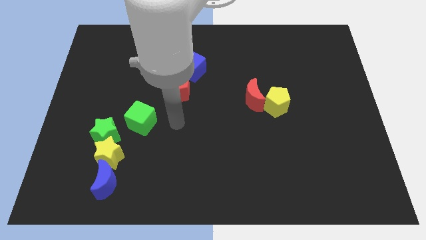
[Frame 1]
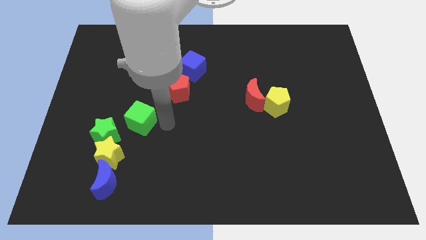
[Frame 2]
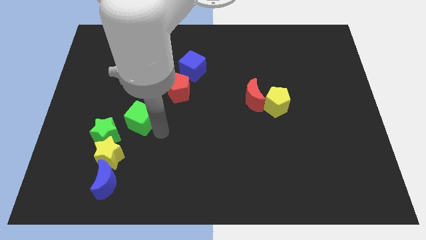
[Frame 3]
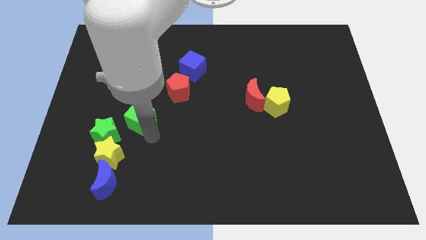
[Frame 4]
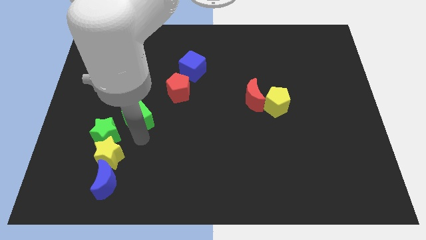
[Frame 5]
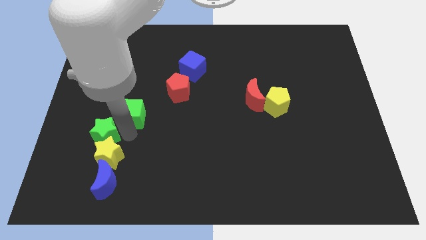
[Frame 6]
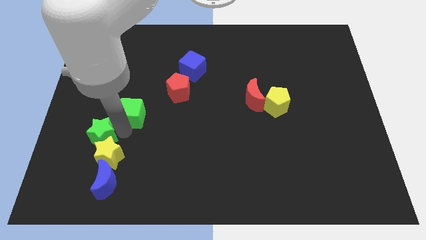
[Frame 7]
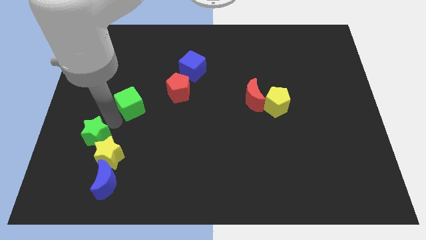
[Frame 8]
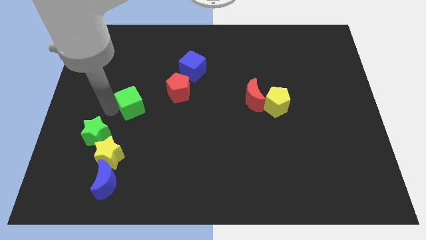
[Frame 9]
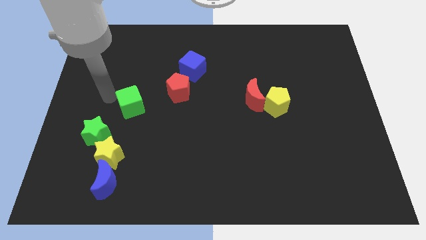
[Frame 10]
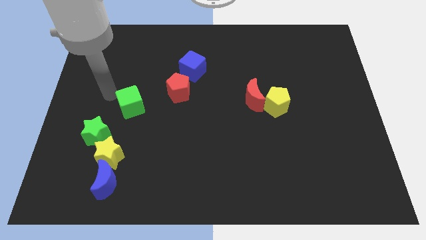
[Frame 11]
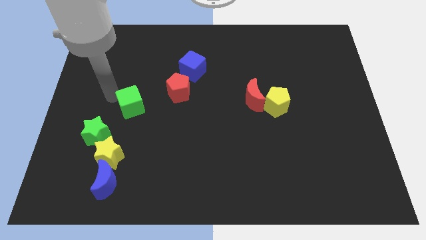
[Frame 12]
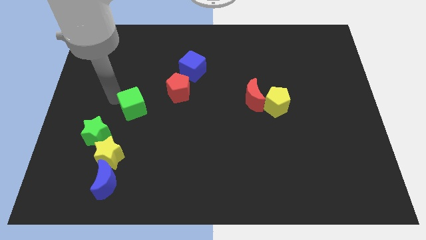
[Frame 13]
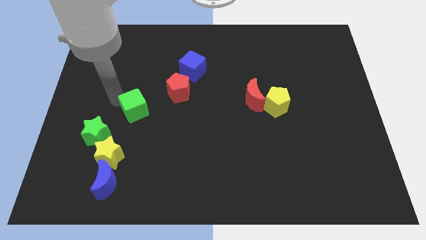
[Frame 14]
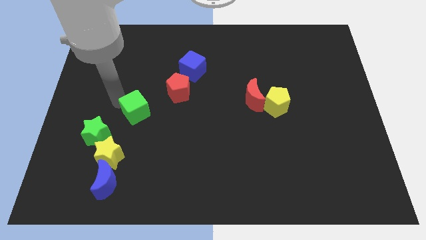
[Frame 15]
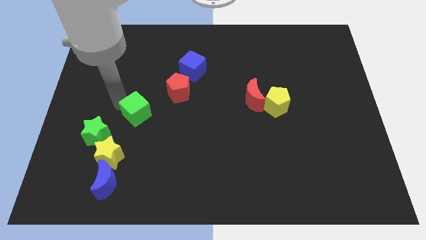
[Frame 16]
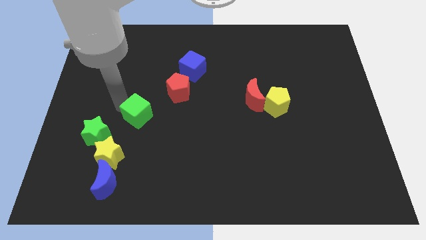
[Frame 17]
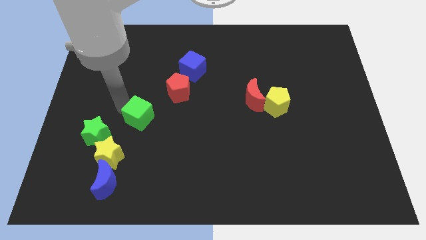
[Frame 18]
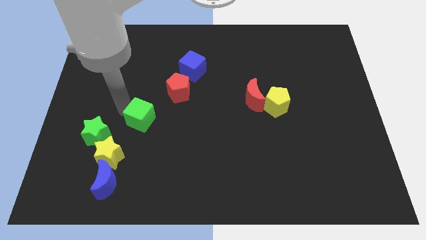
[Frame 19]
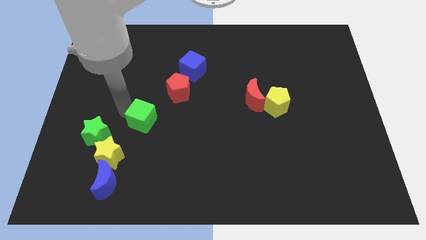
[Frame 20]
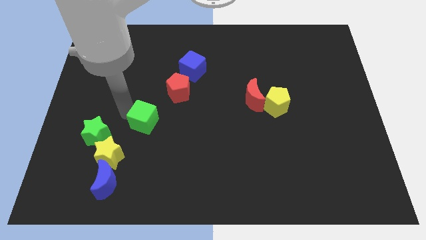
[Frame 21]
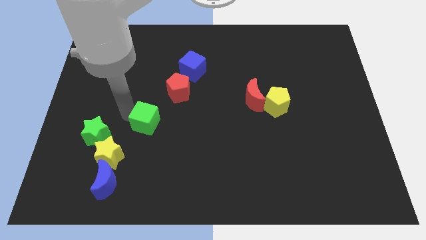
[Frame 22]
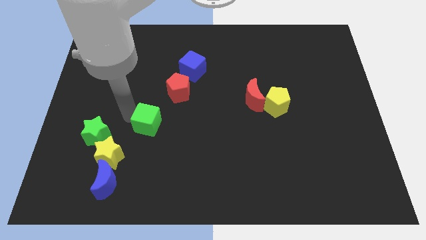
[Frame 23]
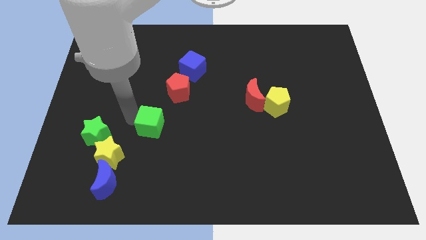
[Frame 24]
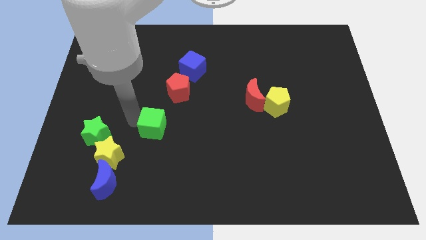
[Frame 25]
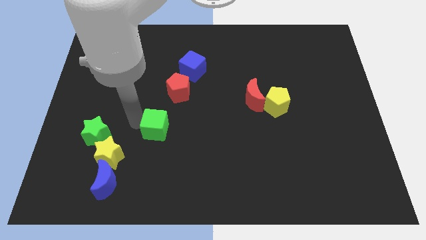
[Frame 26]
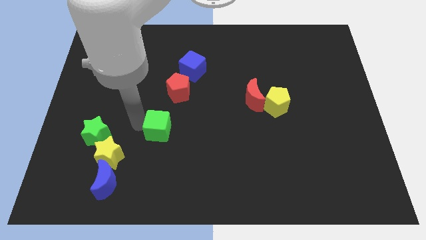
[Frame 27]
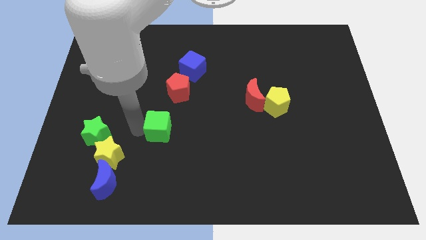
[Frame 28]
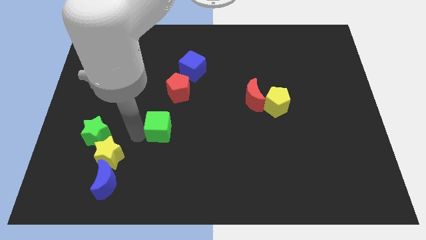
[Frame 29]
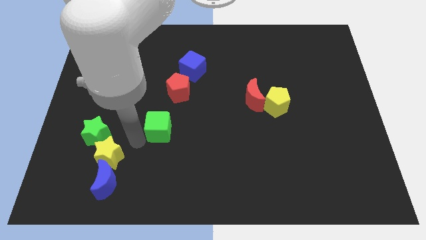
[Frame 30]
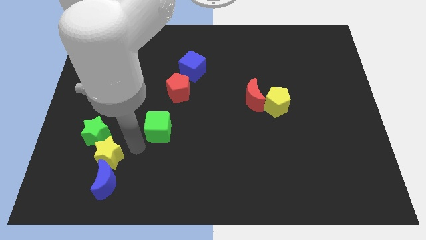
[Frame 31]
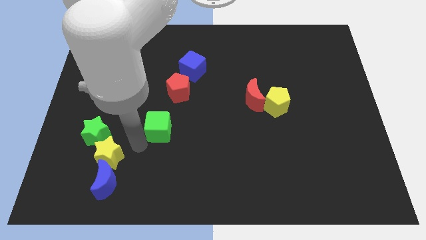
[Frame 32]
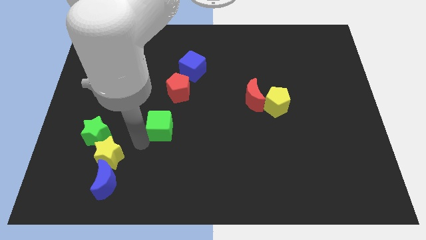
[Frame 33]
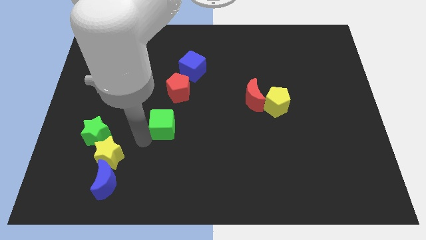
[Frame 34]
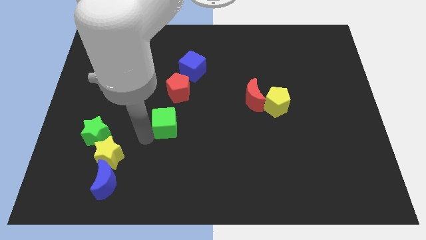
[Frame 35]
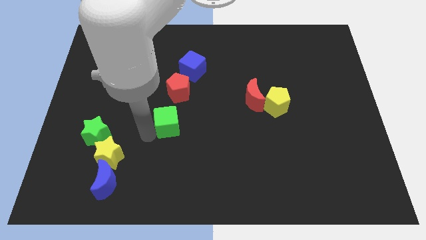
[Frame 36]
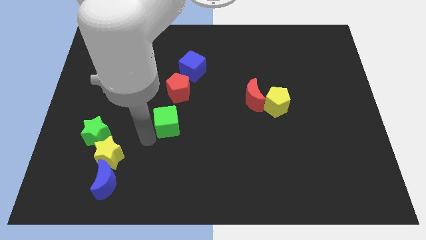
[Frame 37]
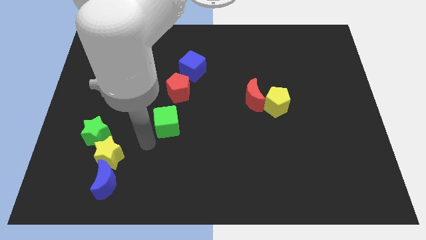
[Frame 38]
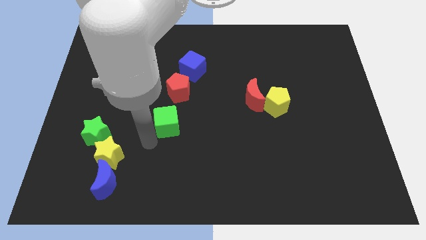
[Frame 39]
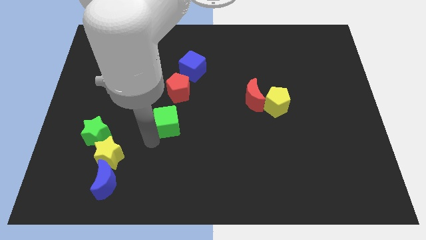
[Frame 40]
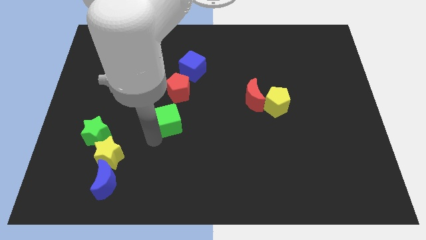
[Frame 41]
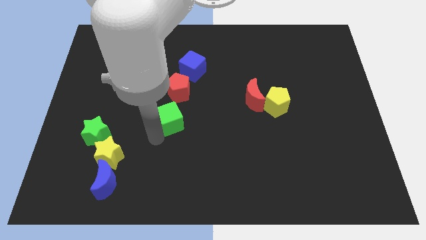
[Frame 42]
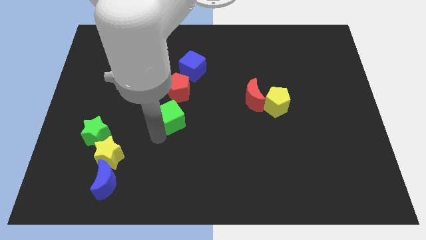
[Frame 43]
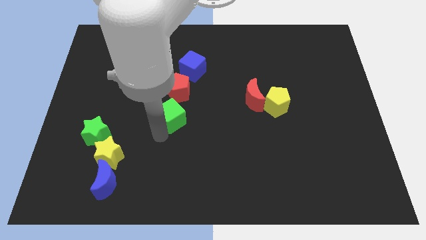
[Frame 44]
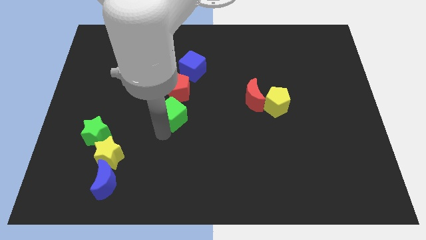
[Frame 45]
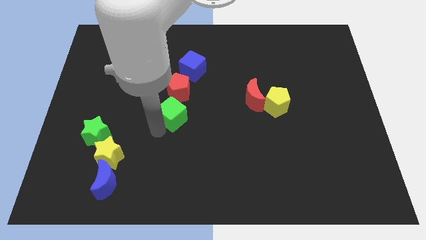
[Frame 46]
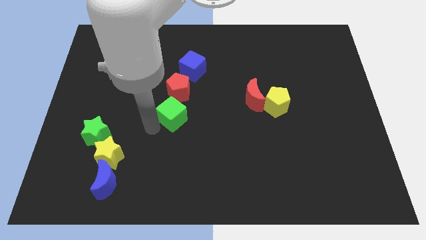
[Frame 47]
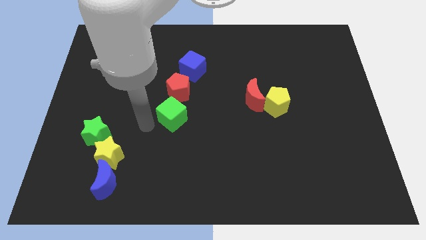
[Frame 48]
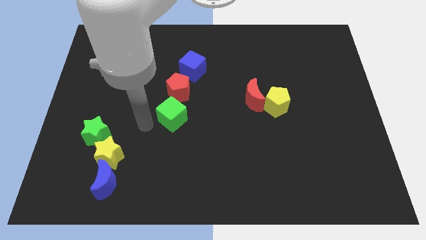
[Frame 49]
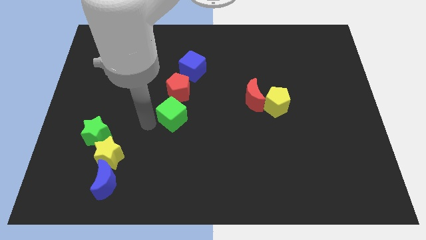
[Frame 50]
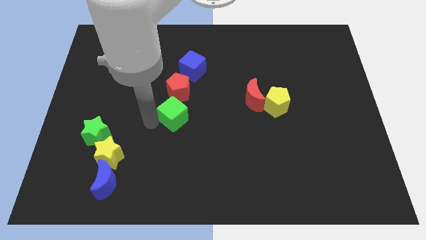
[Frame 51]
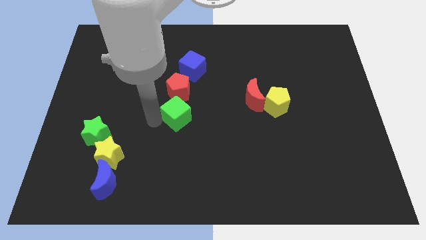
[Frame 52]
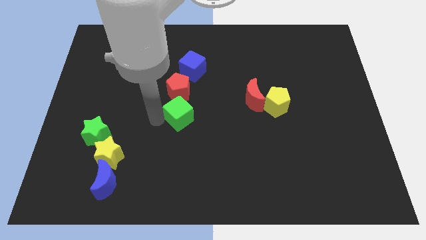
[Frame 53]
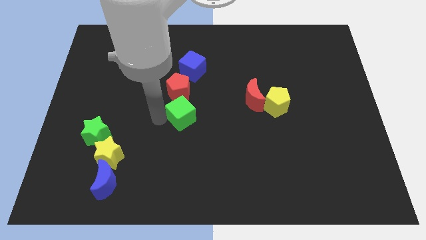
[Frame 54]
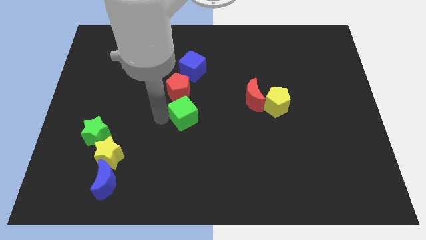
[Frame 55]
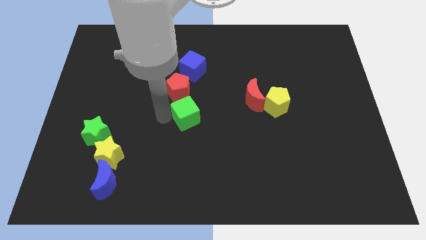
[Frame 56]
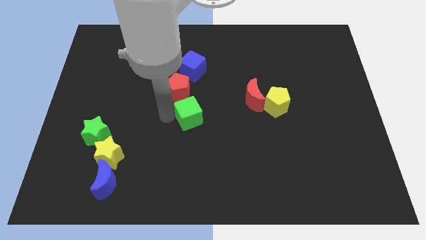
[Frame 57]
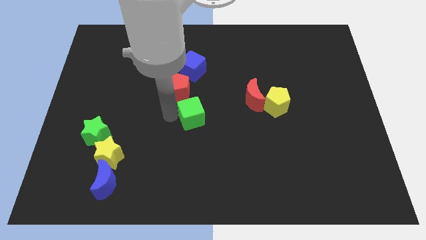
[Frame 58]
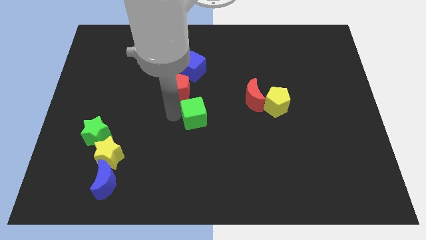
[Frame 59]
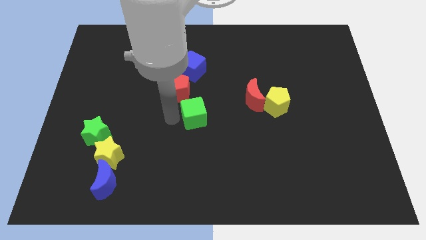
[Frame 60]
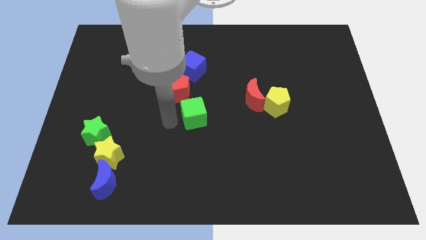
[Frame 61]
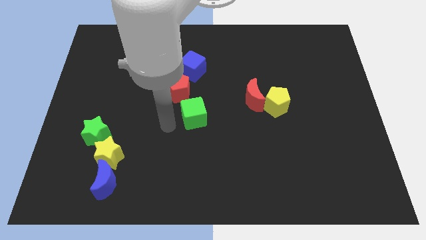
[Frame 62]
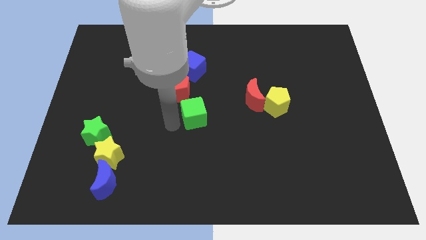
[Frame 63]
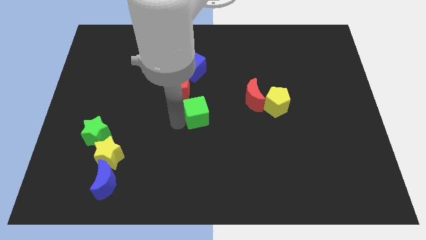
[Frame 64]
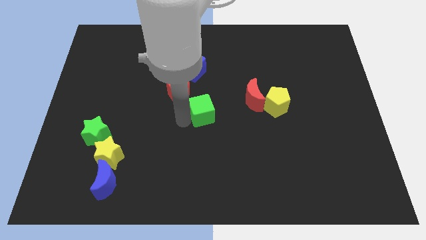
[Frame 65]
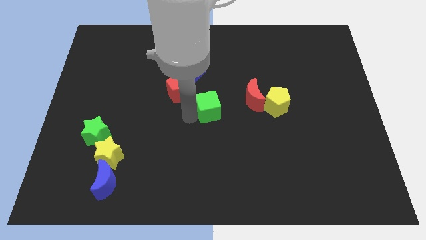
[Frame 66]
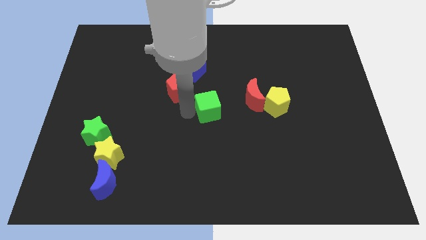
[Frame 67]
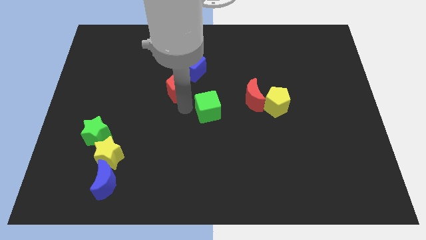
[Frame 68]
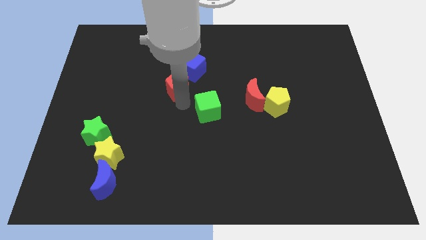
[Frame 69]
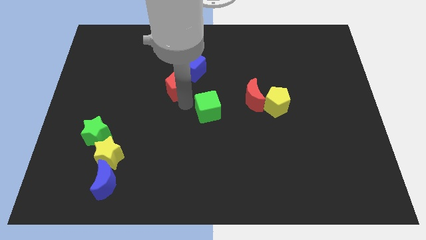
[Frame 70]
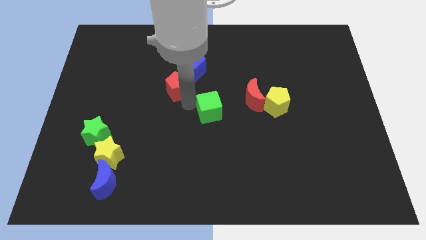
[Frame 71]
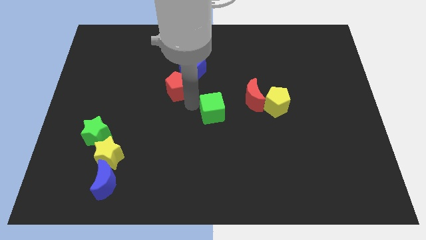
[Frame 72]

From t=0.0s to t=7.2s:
push the green cube to the bottom left side of the red moon
